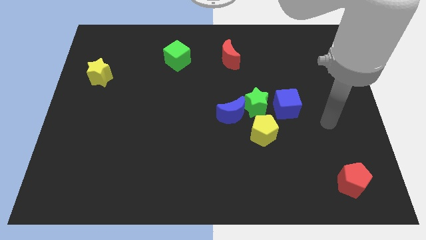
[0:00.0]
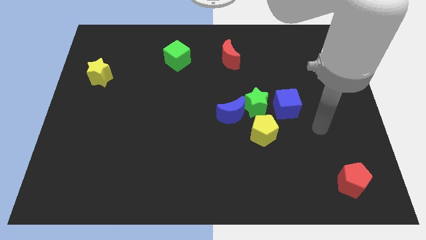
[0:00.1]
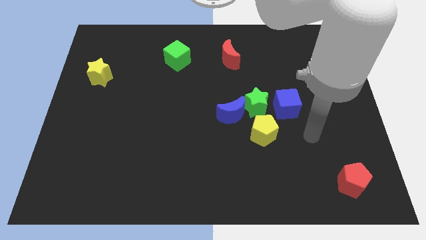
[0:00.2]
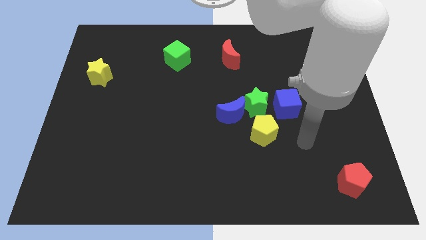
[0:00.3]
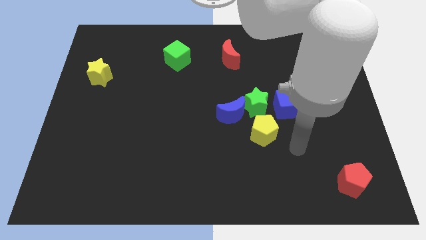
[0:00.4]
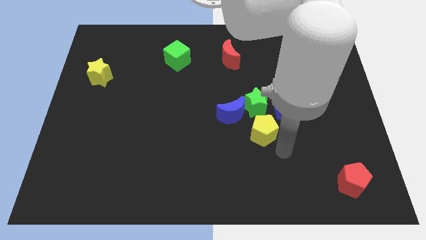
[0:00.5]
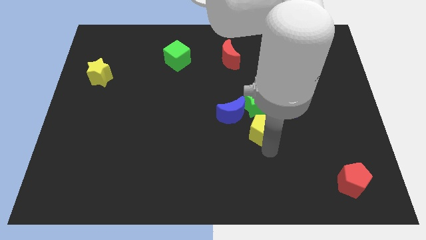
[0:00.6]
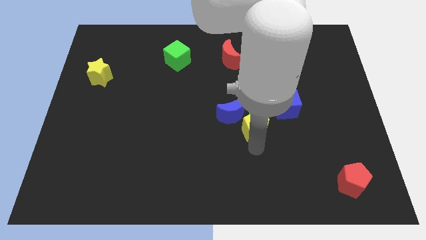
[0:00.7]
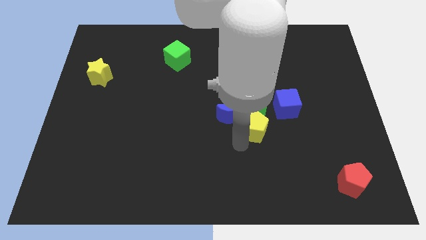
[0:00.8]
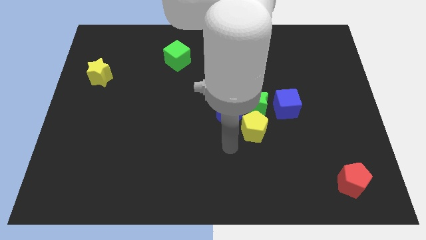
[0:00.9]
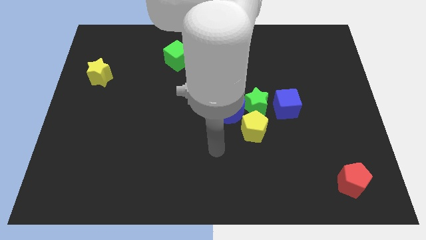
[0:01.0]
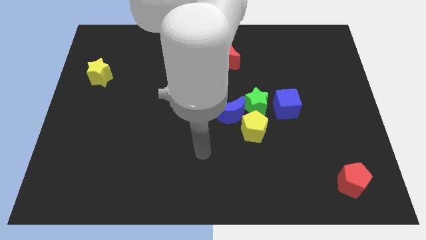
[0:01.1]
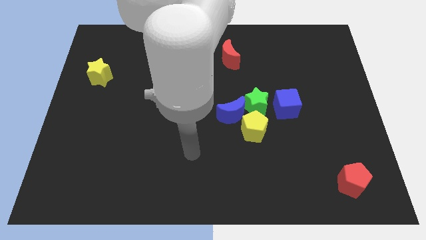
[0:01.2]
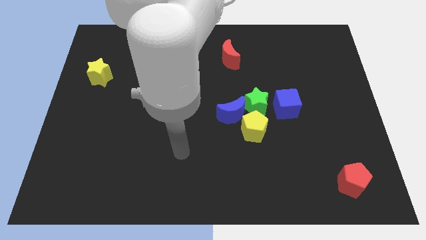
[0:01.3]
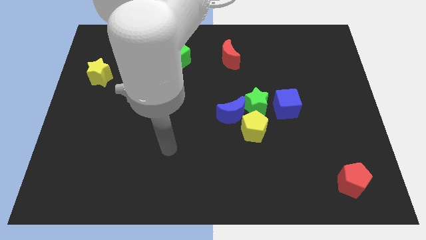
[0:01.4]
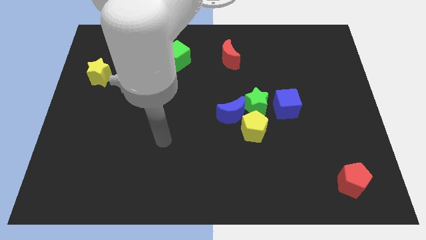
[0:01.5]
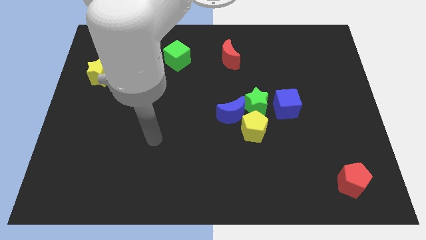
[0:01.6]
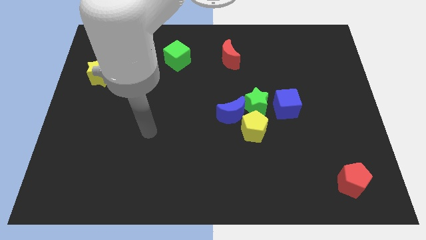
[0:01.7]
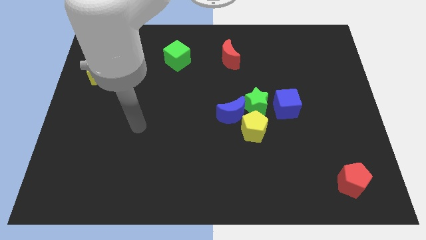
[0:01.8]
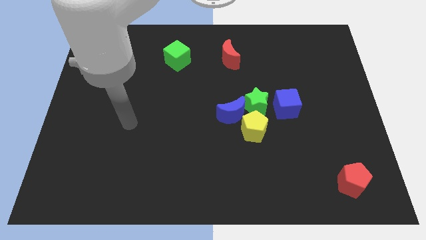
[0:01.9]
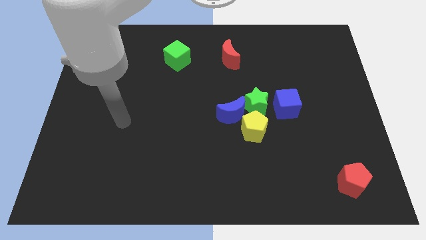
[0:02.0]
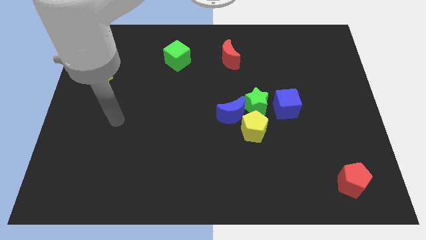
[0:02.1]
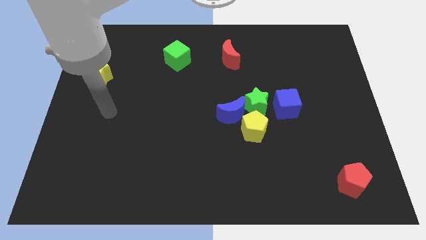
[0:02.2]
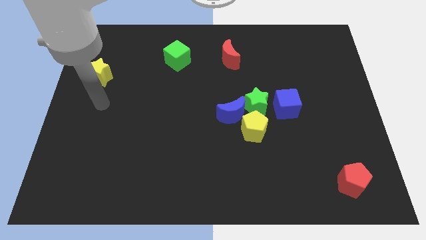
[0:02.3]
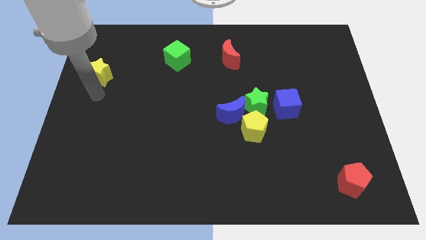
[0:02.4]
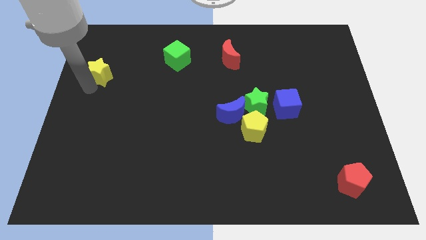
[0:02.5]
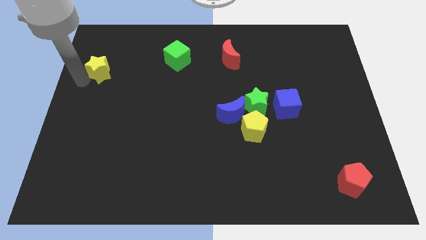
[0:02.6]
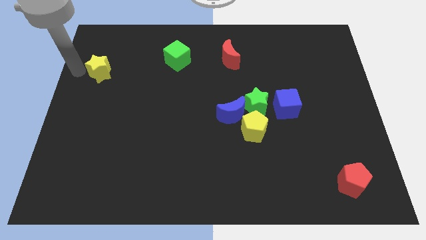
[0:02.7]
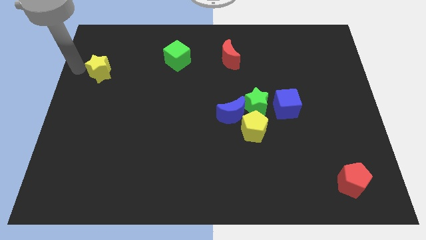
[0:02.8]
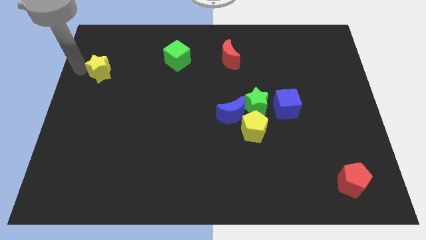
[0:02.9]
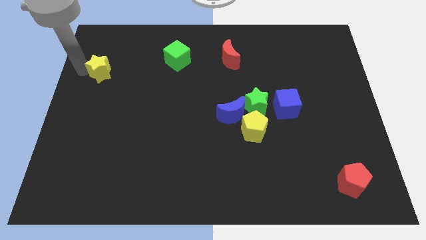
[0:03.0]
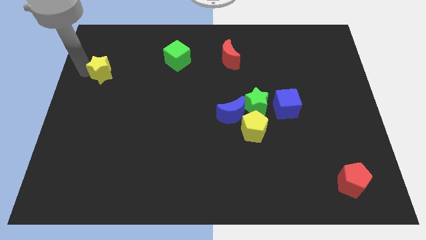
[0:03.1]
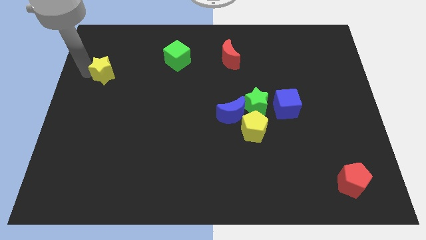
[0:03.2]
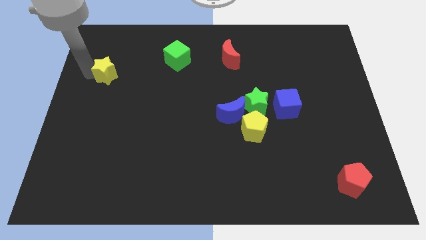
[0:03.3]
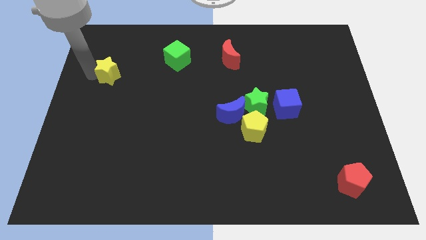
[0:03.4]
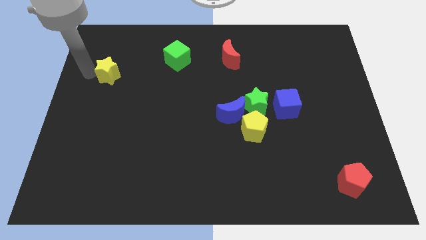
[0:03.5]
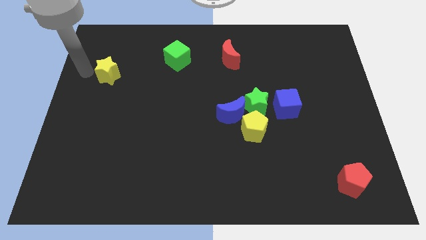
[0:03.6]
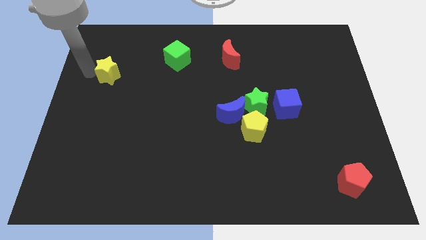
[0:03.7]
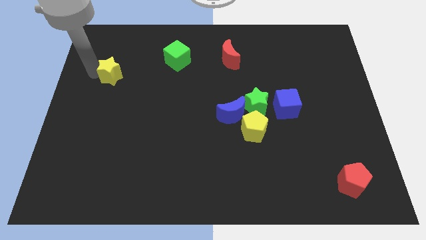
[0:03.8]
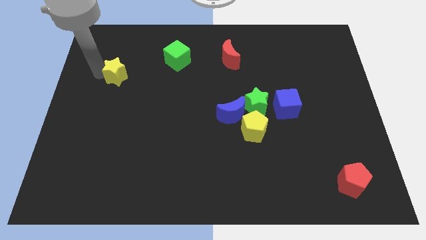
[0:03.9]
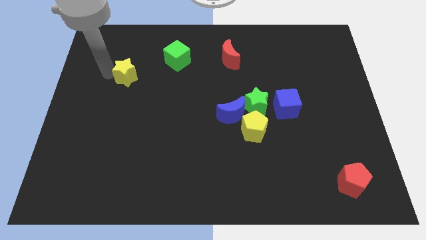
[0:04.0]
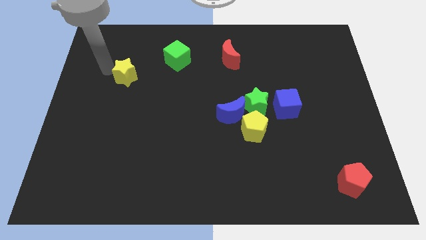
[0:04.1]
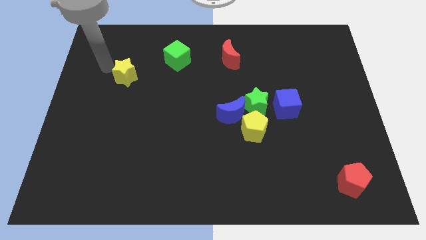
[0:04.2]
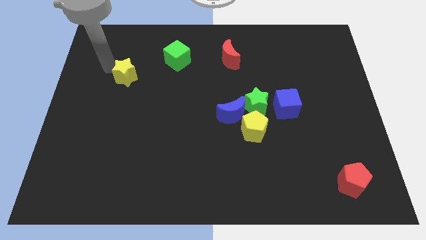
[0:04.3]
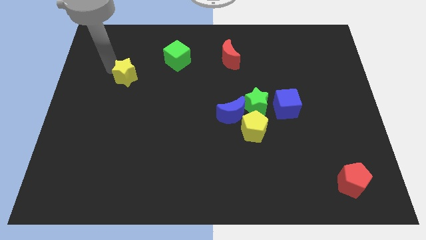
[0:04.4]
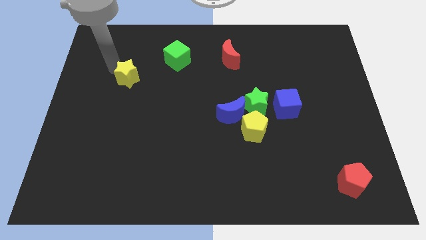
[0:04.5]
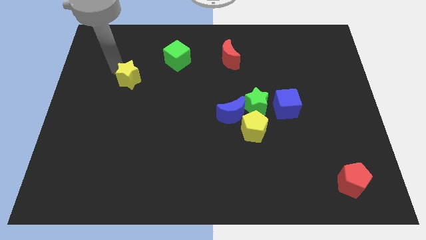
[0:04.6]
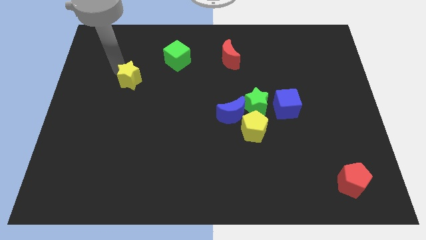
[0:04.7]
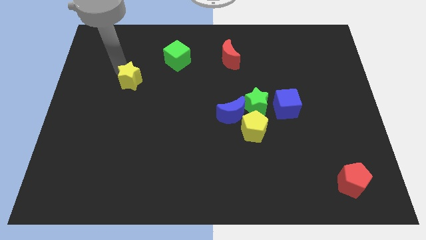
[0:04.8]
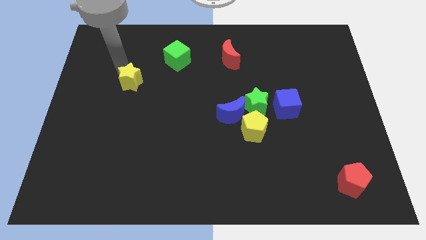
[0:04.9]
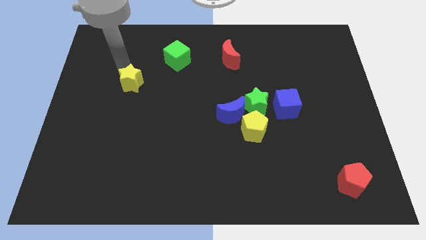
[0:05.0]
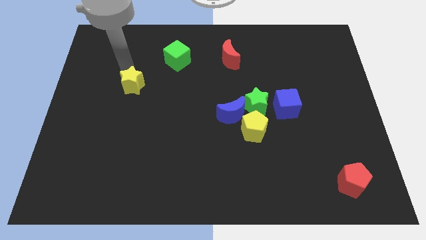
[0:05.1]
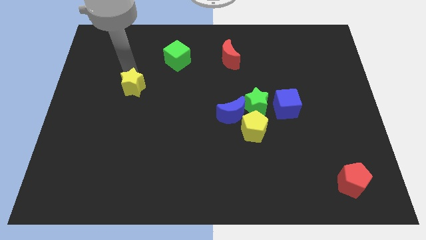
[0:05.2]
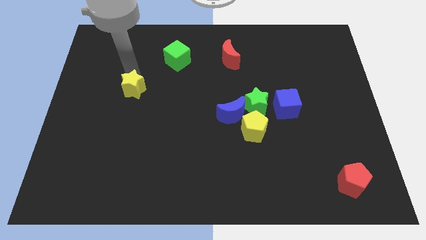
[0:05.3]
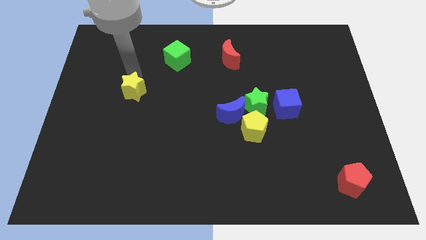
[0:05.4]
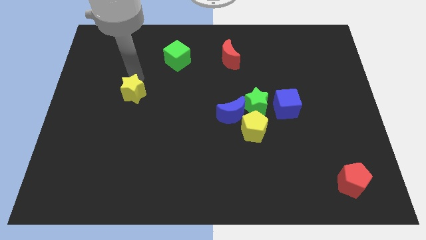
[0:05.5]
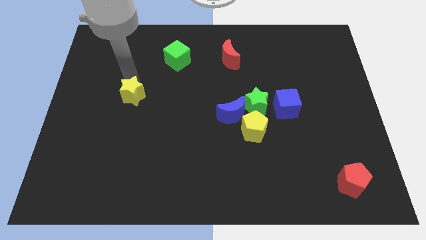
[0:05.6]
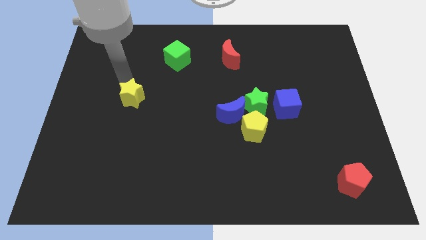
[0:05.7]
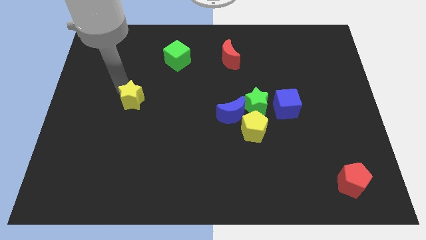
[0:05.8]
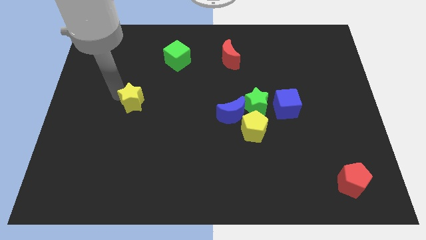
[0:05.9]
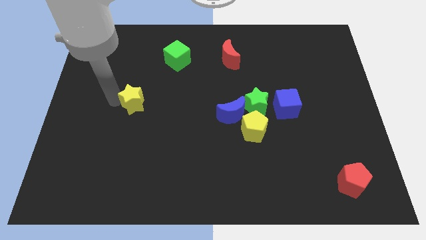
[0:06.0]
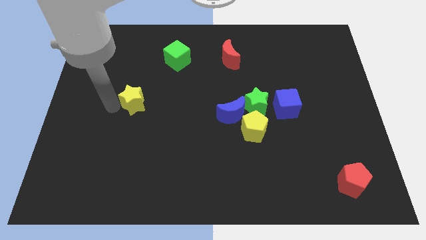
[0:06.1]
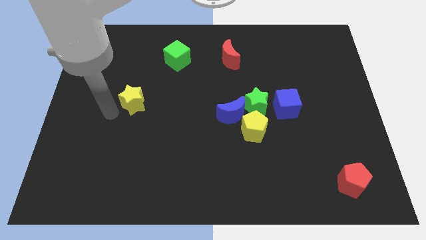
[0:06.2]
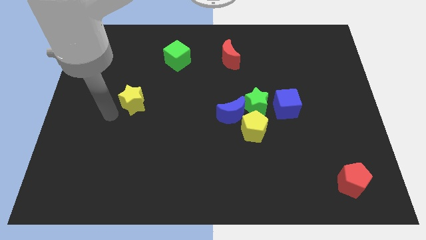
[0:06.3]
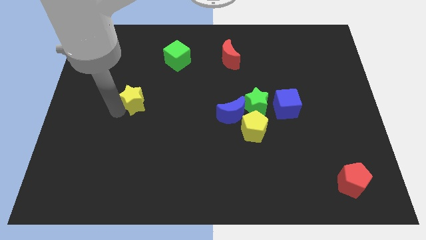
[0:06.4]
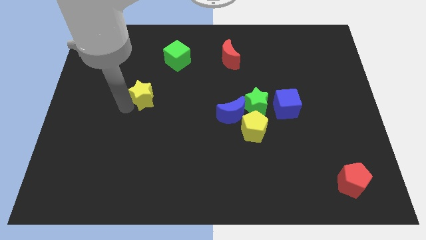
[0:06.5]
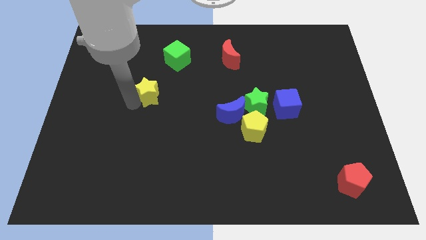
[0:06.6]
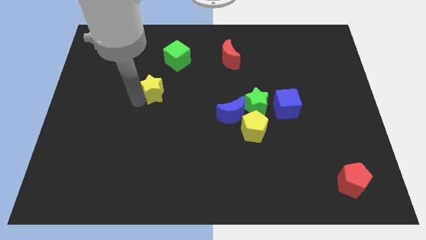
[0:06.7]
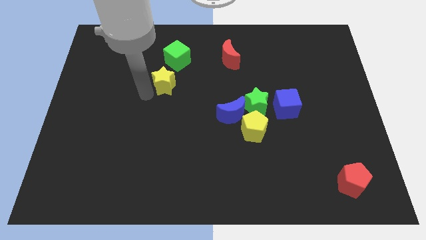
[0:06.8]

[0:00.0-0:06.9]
slide the yellow star to the middle
